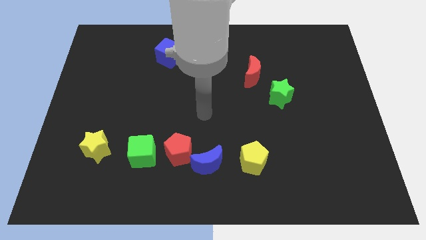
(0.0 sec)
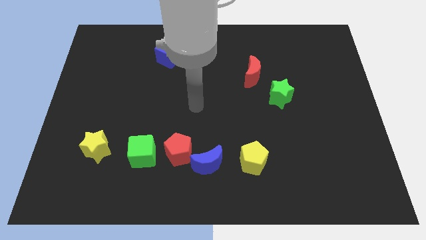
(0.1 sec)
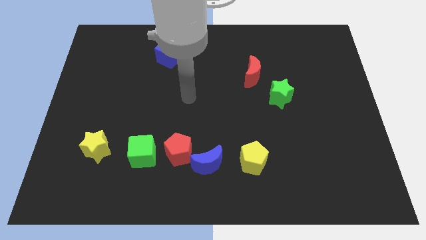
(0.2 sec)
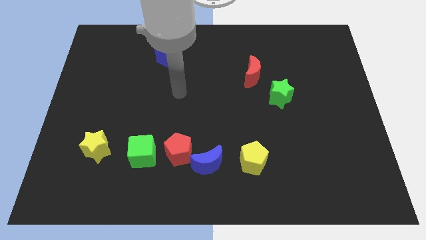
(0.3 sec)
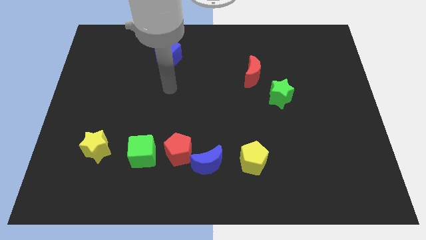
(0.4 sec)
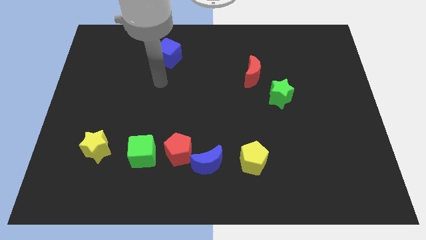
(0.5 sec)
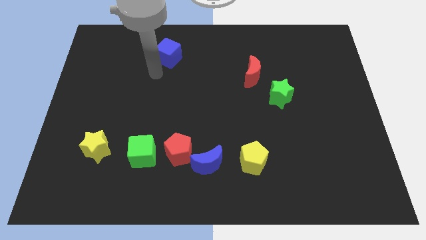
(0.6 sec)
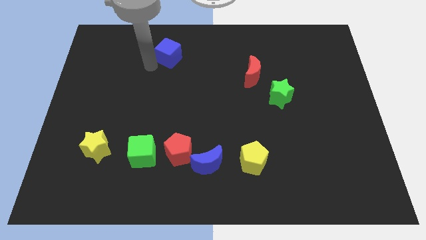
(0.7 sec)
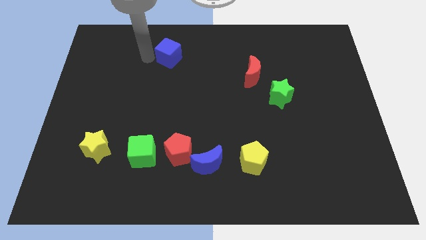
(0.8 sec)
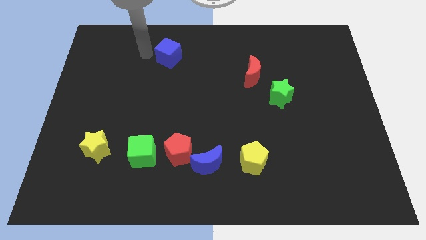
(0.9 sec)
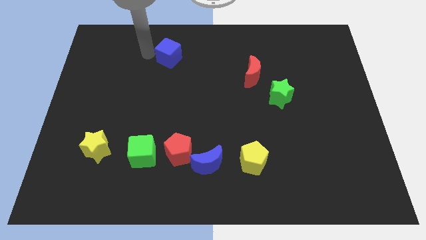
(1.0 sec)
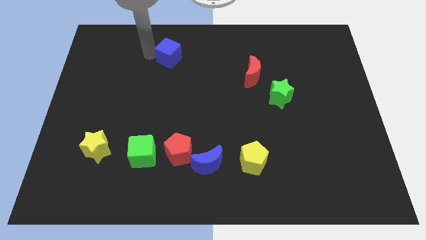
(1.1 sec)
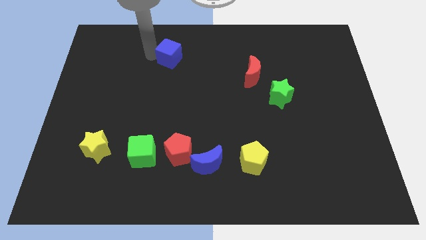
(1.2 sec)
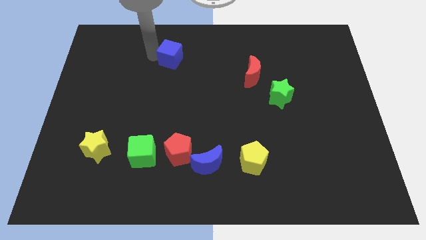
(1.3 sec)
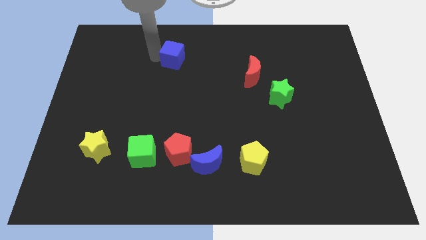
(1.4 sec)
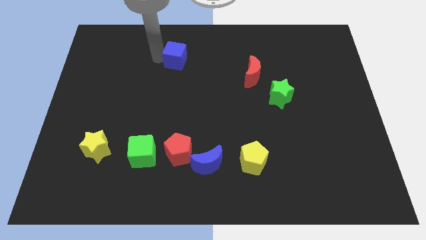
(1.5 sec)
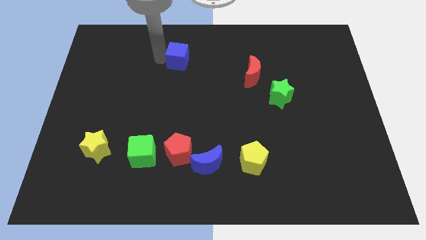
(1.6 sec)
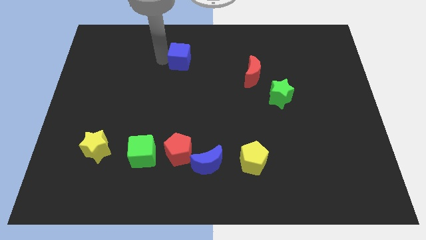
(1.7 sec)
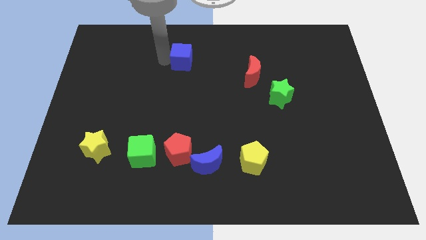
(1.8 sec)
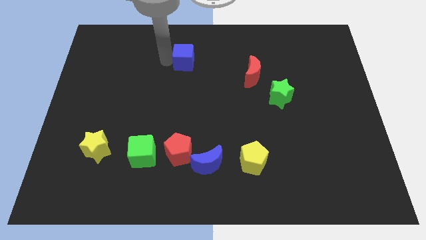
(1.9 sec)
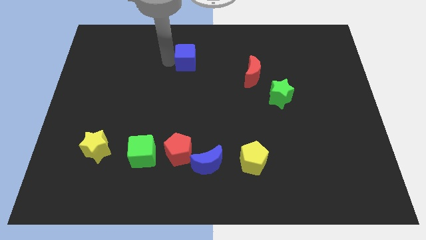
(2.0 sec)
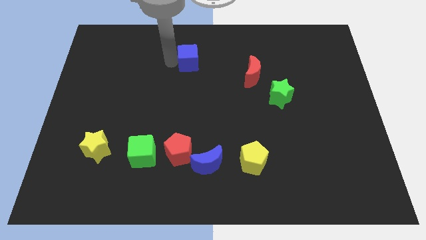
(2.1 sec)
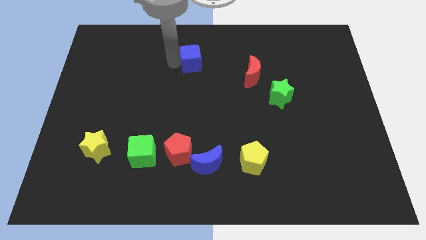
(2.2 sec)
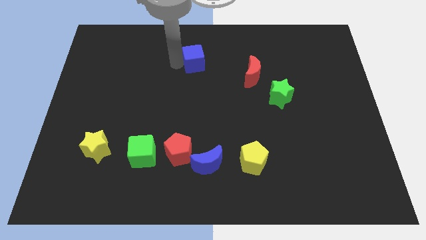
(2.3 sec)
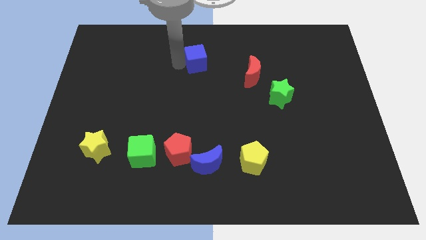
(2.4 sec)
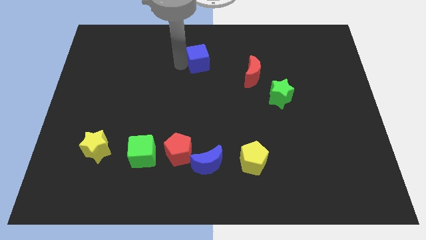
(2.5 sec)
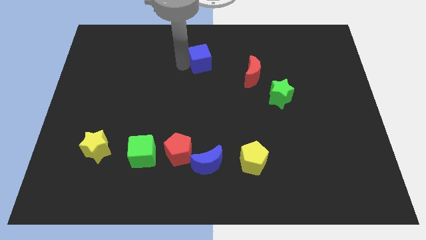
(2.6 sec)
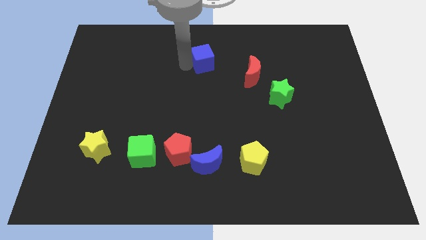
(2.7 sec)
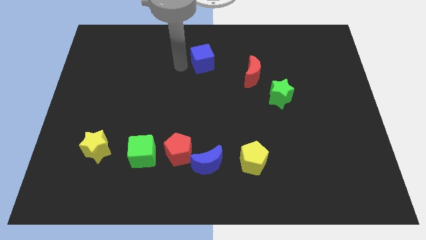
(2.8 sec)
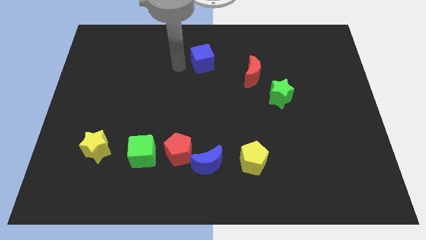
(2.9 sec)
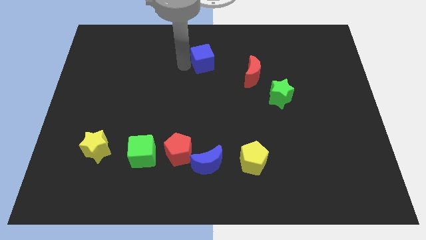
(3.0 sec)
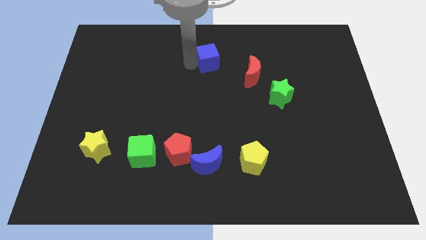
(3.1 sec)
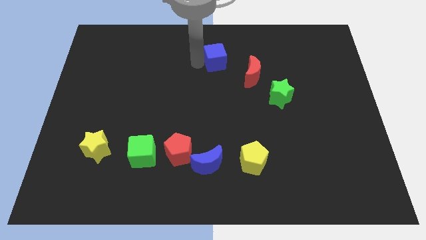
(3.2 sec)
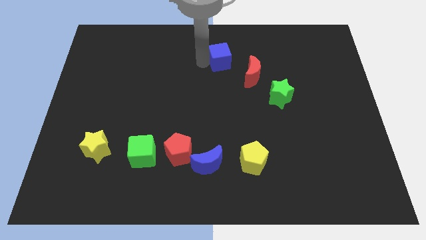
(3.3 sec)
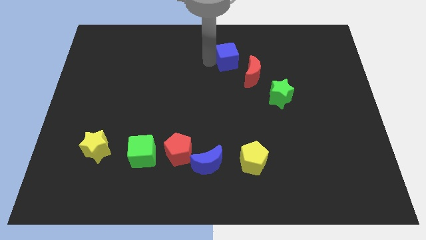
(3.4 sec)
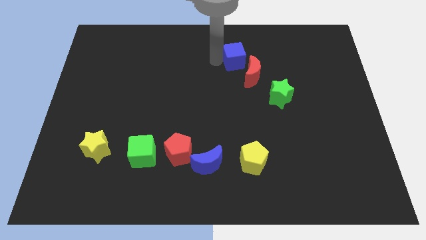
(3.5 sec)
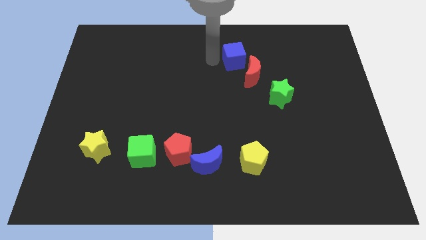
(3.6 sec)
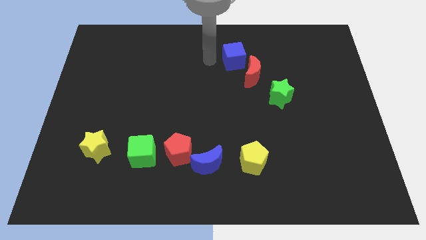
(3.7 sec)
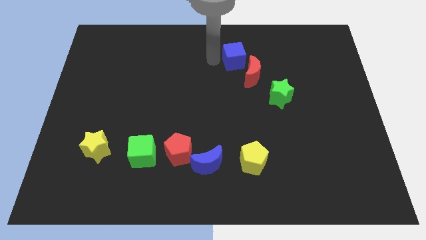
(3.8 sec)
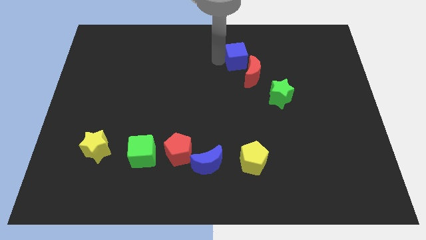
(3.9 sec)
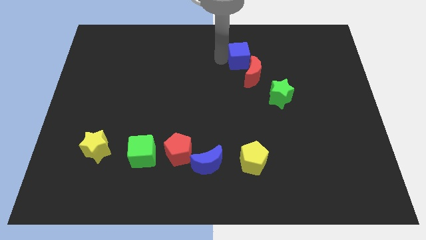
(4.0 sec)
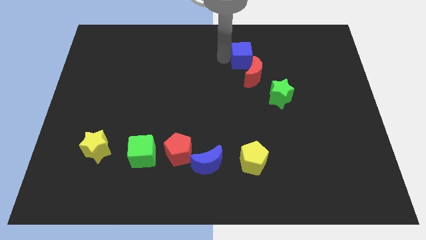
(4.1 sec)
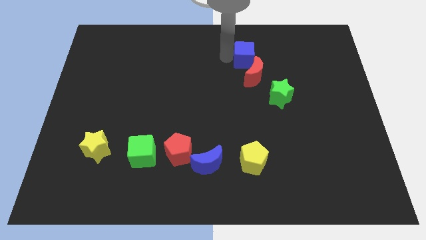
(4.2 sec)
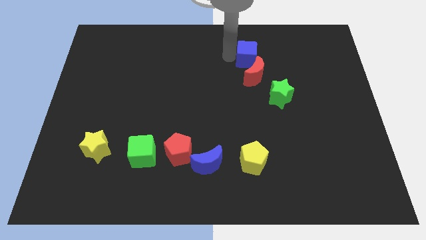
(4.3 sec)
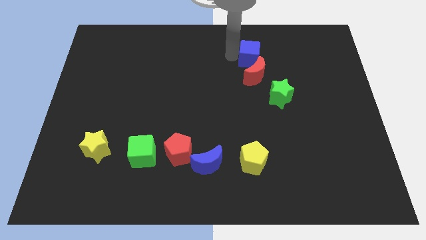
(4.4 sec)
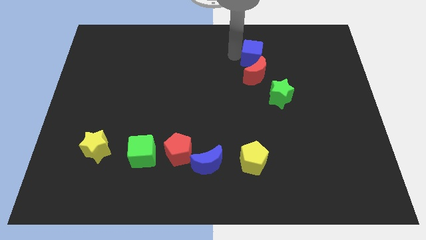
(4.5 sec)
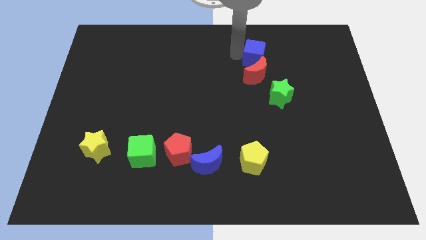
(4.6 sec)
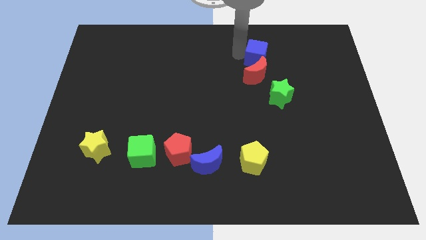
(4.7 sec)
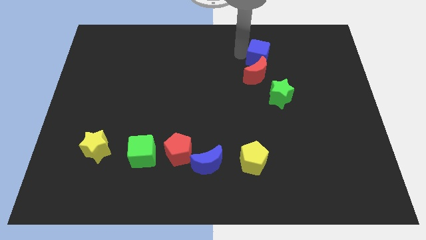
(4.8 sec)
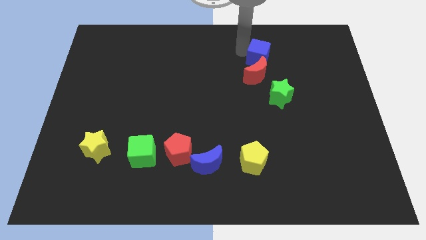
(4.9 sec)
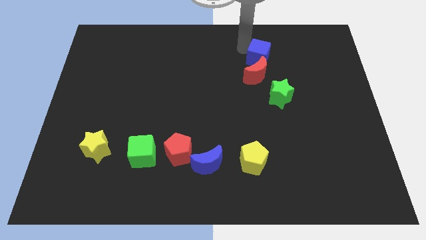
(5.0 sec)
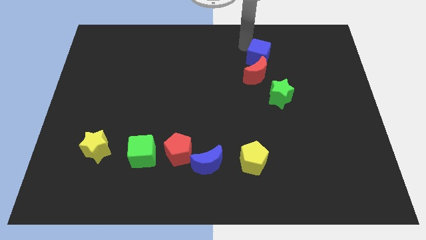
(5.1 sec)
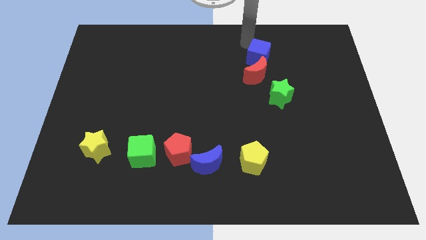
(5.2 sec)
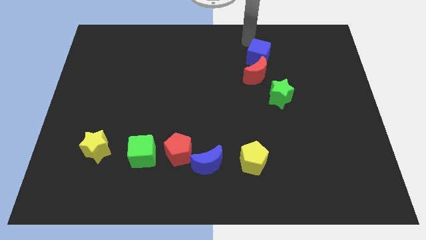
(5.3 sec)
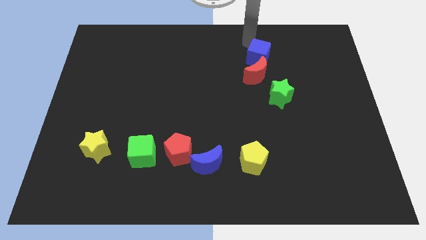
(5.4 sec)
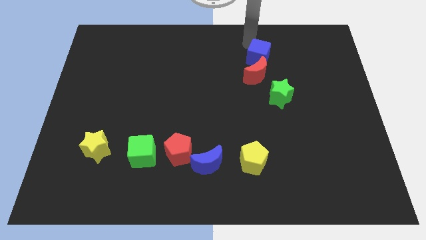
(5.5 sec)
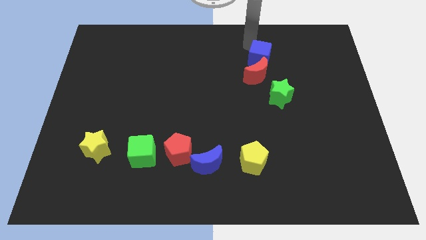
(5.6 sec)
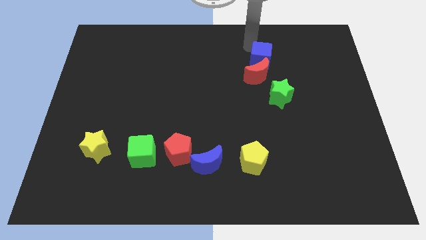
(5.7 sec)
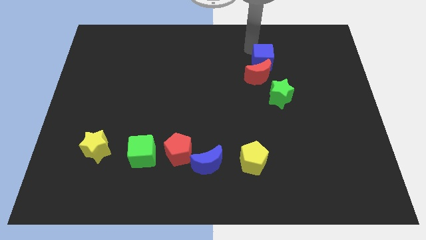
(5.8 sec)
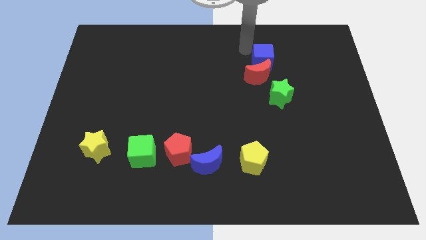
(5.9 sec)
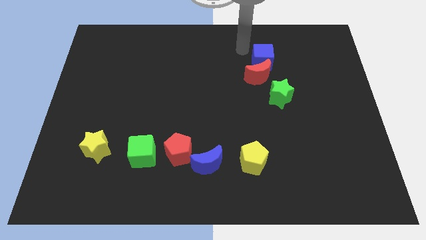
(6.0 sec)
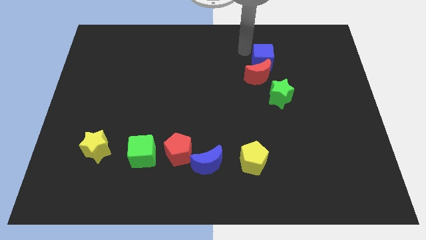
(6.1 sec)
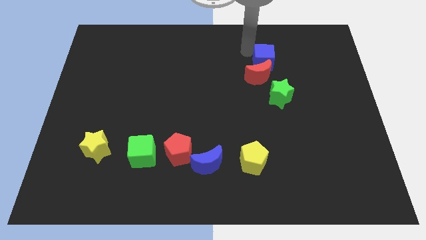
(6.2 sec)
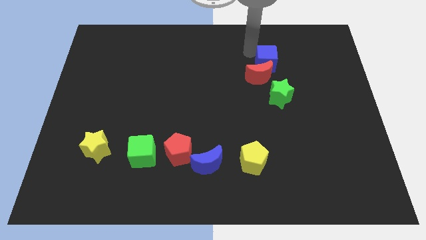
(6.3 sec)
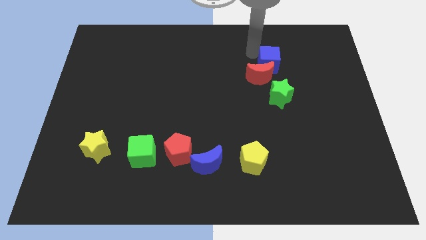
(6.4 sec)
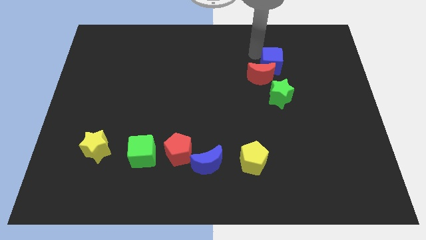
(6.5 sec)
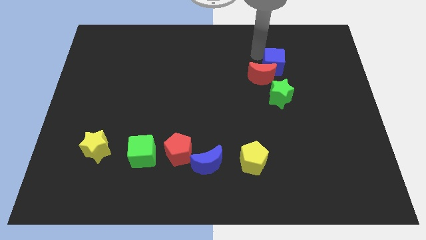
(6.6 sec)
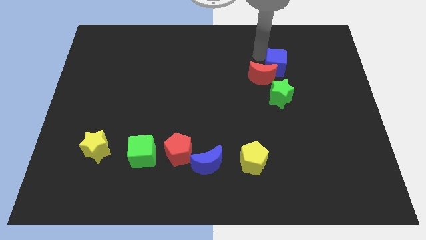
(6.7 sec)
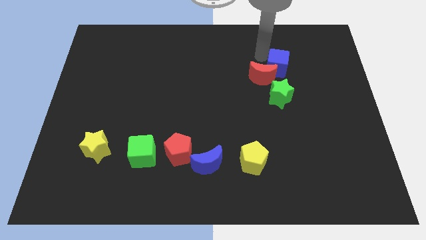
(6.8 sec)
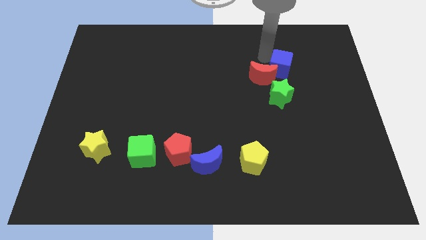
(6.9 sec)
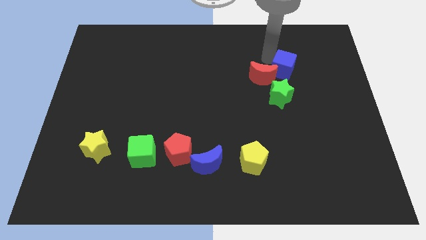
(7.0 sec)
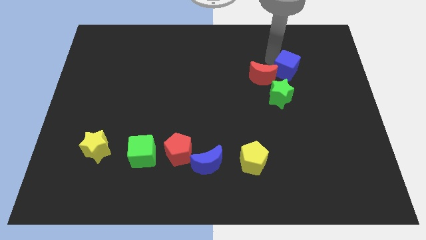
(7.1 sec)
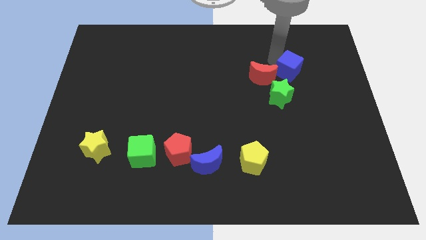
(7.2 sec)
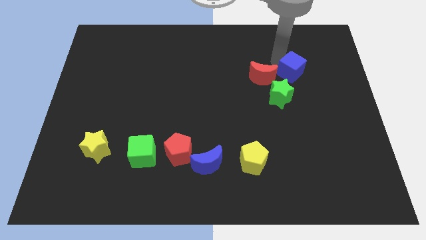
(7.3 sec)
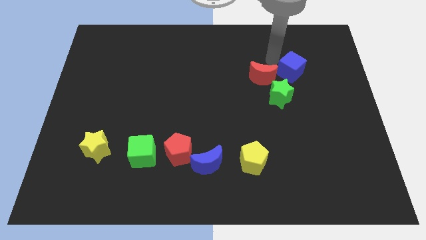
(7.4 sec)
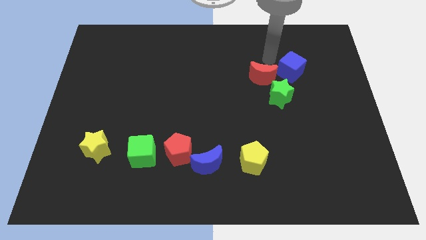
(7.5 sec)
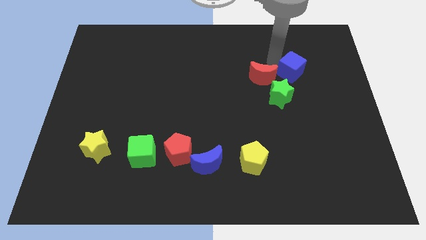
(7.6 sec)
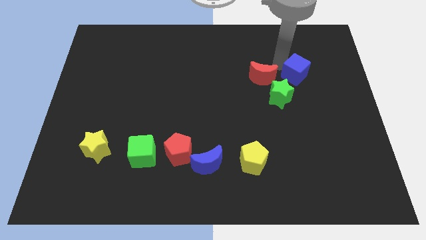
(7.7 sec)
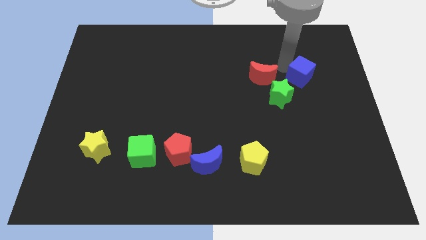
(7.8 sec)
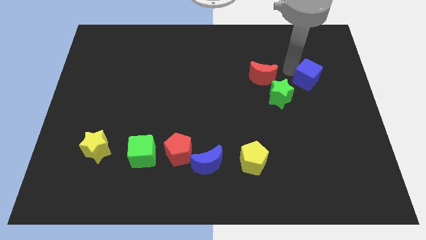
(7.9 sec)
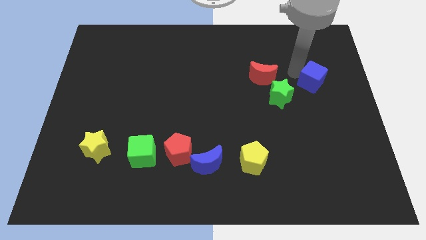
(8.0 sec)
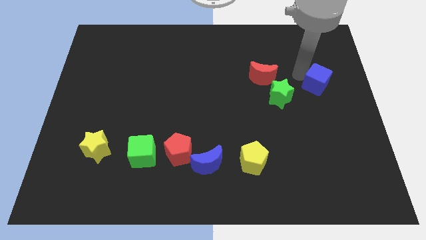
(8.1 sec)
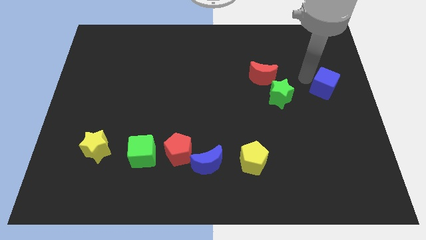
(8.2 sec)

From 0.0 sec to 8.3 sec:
put the blue cube to the right side
